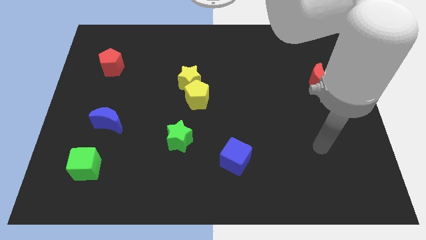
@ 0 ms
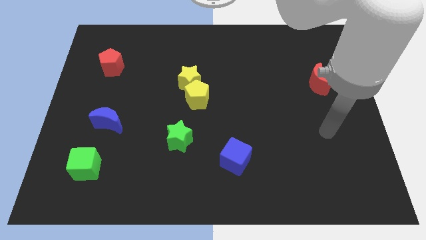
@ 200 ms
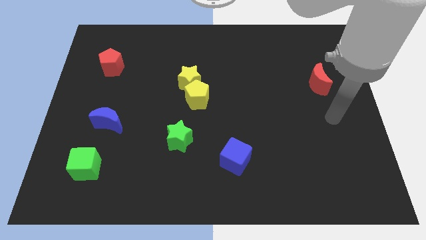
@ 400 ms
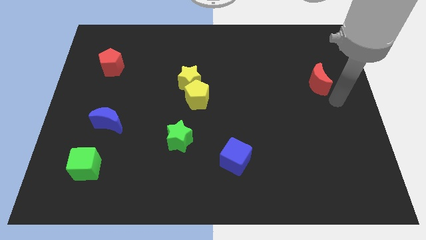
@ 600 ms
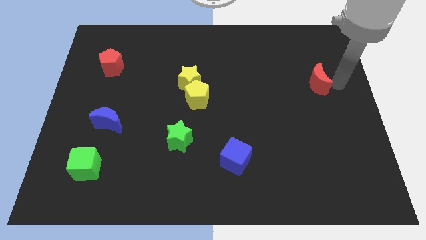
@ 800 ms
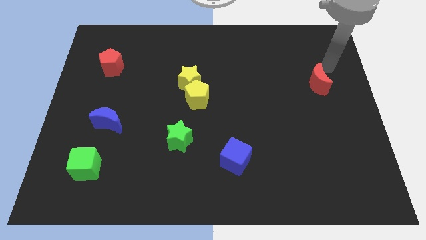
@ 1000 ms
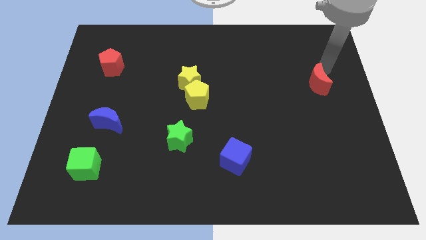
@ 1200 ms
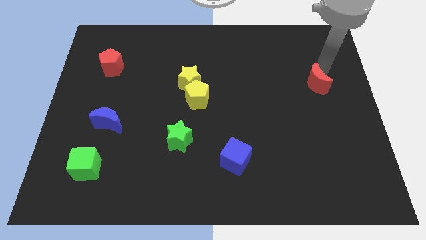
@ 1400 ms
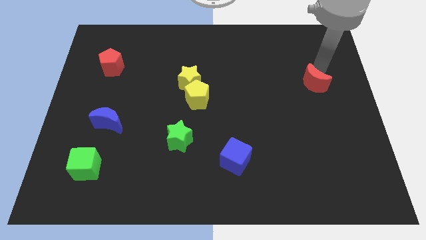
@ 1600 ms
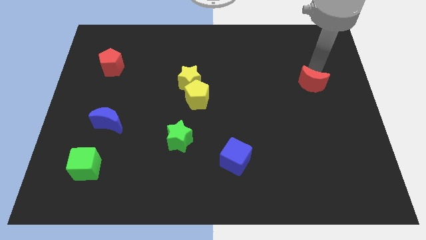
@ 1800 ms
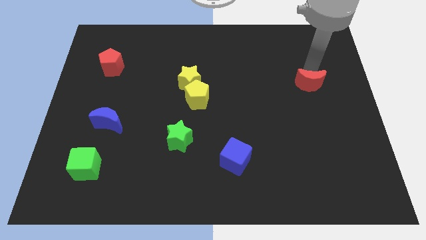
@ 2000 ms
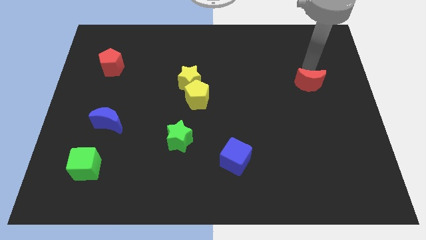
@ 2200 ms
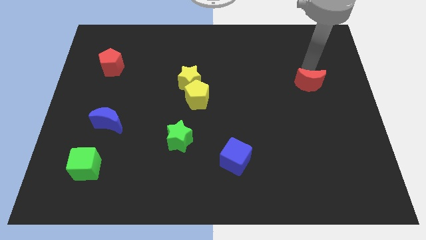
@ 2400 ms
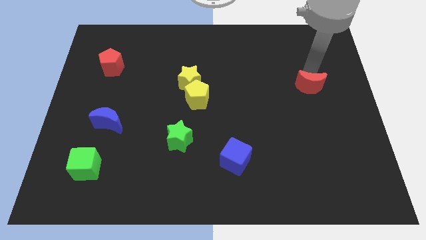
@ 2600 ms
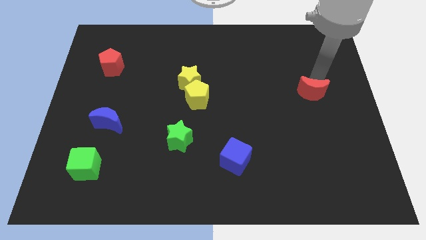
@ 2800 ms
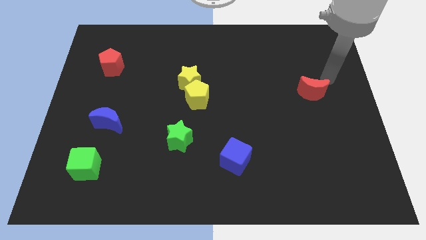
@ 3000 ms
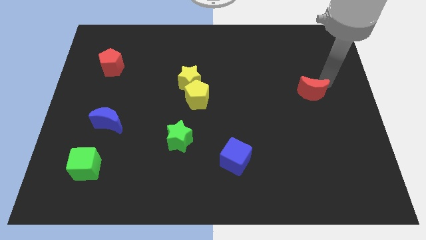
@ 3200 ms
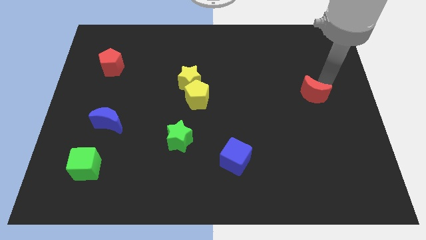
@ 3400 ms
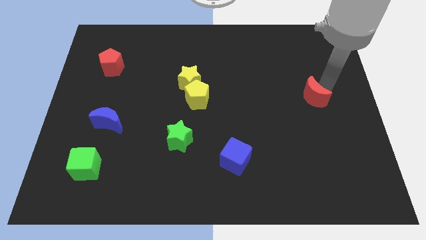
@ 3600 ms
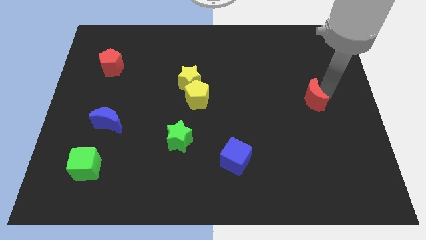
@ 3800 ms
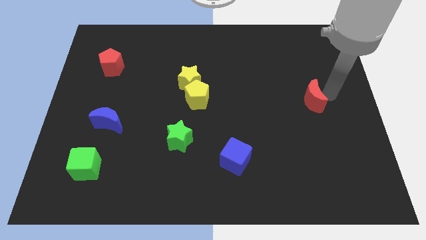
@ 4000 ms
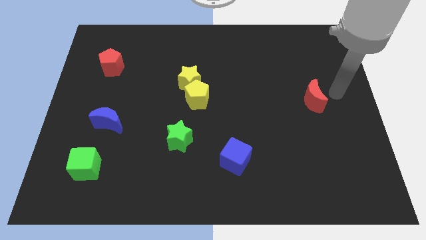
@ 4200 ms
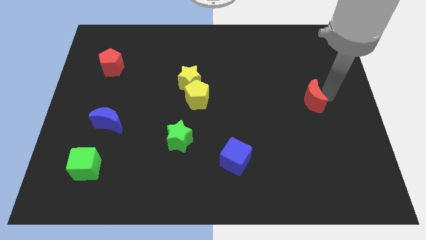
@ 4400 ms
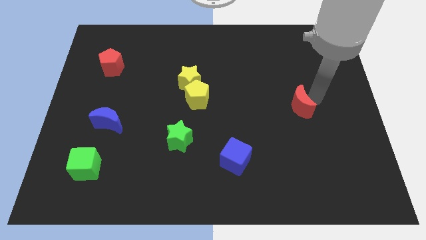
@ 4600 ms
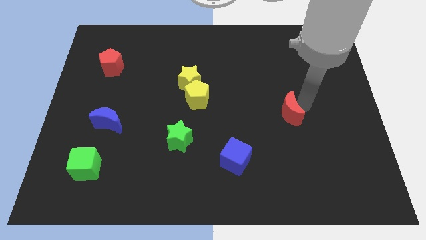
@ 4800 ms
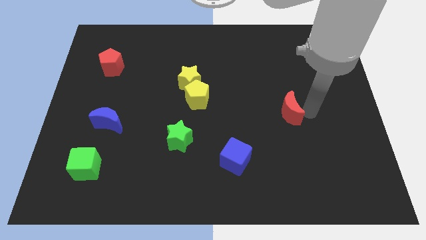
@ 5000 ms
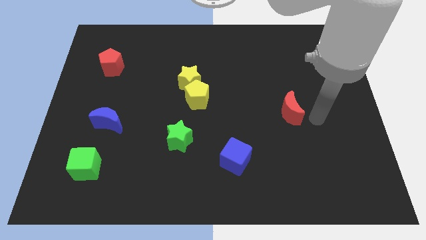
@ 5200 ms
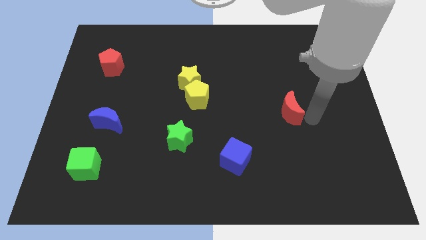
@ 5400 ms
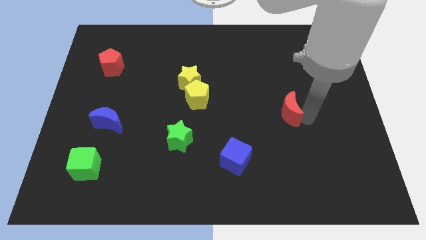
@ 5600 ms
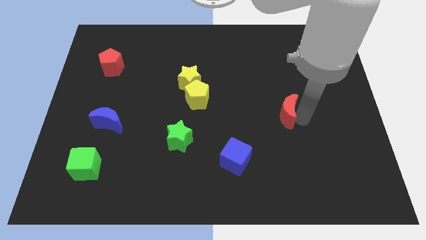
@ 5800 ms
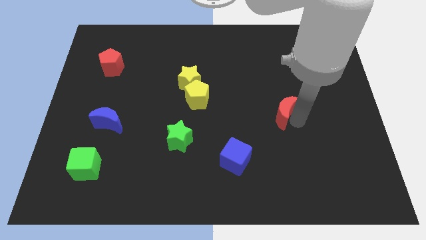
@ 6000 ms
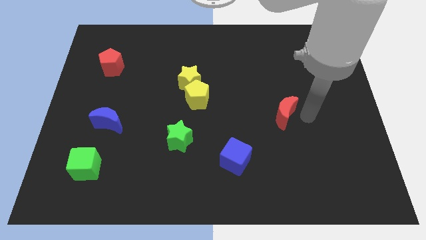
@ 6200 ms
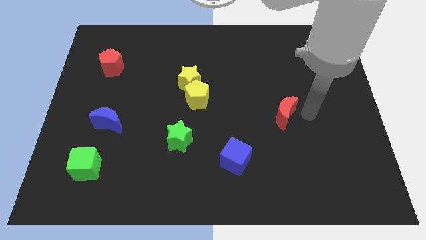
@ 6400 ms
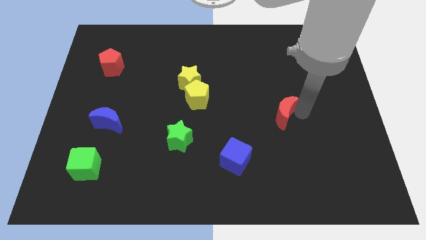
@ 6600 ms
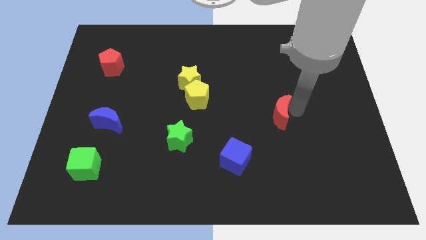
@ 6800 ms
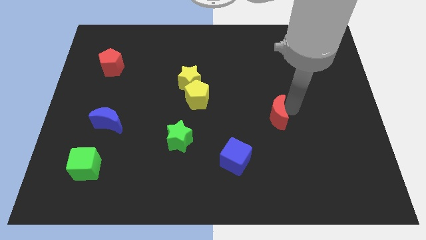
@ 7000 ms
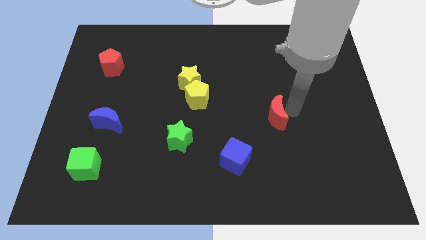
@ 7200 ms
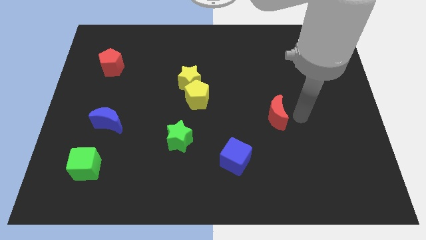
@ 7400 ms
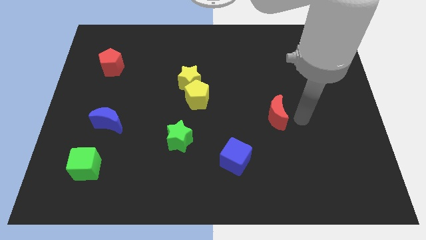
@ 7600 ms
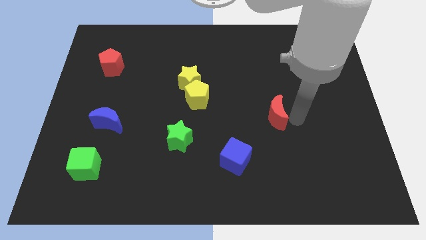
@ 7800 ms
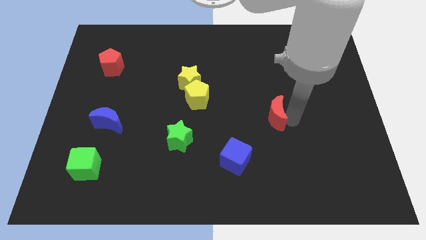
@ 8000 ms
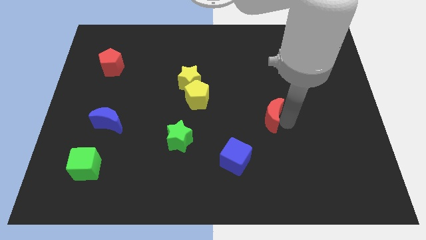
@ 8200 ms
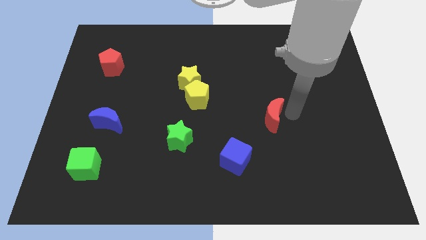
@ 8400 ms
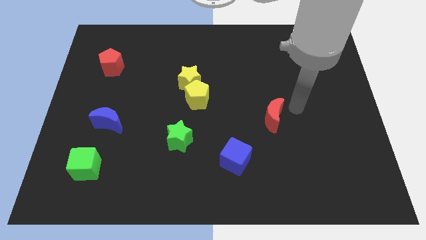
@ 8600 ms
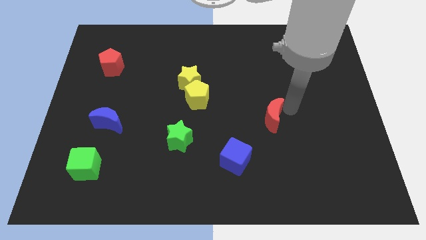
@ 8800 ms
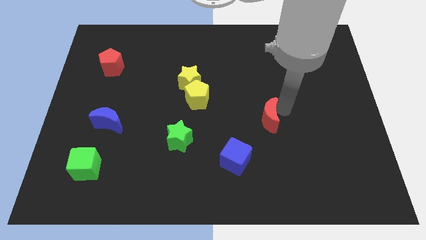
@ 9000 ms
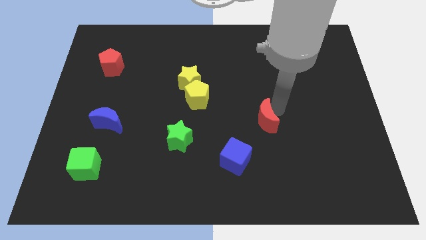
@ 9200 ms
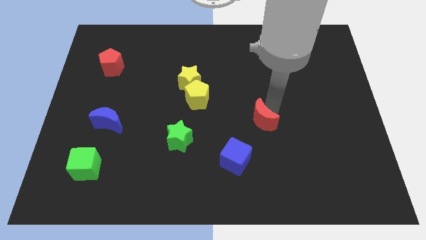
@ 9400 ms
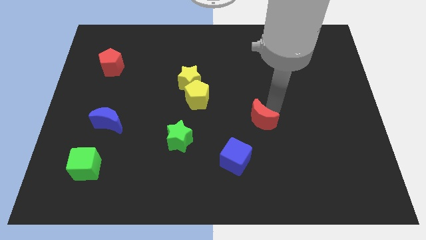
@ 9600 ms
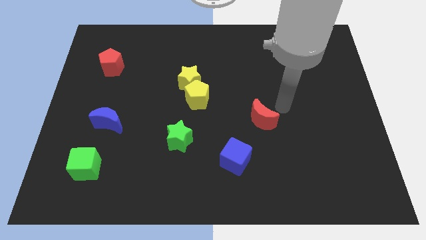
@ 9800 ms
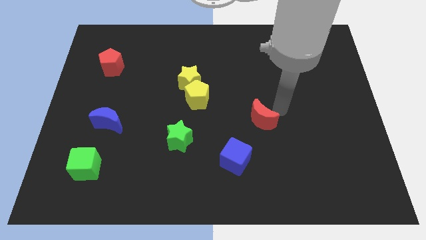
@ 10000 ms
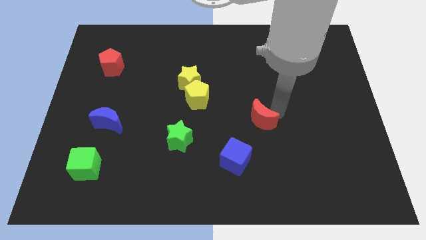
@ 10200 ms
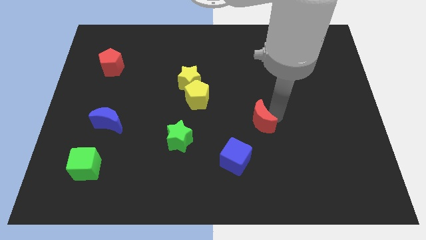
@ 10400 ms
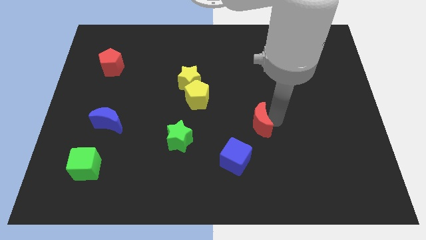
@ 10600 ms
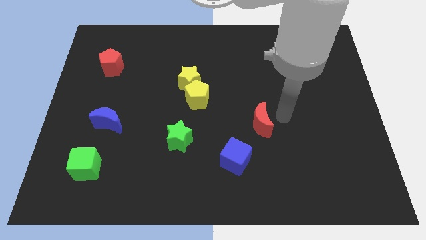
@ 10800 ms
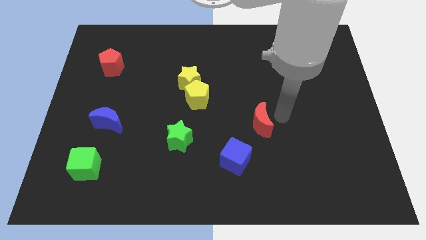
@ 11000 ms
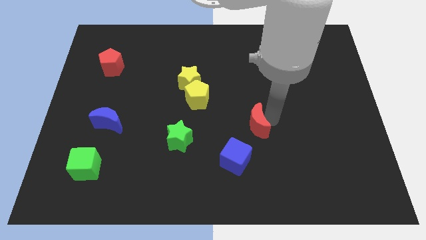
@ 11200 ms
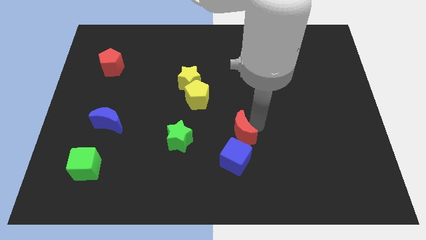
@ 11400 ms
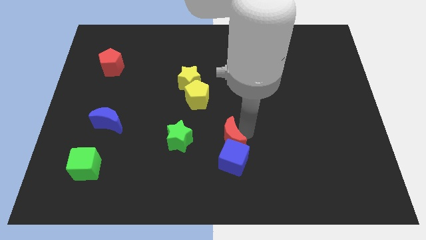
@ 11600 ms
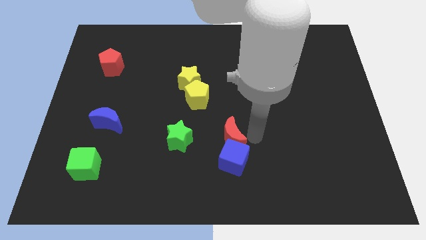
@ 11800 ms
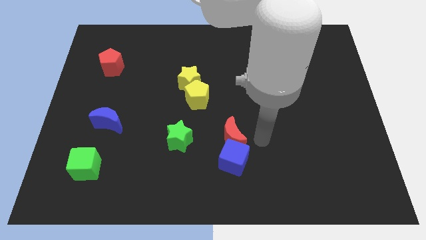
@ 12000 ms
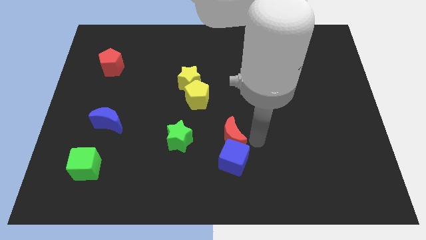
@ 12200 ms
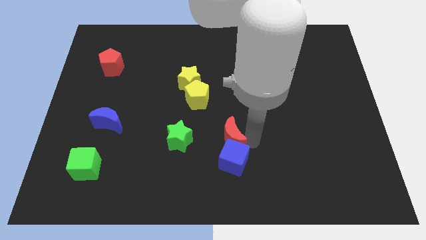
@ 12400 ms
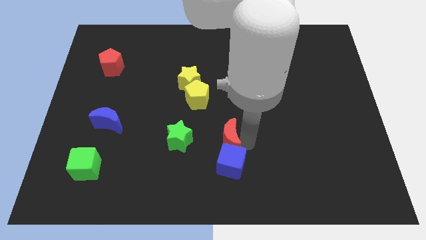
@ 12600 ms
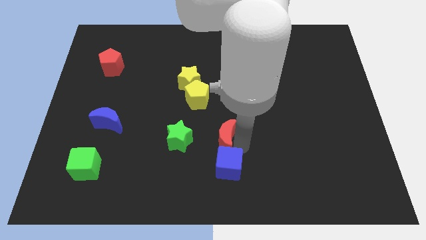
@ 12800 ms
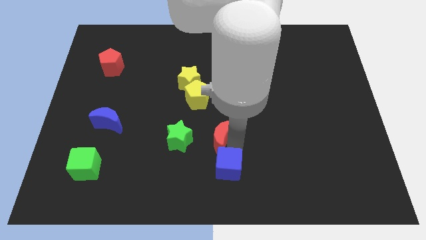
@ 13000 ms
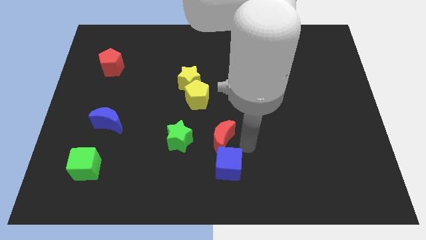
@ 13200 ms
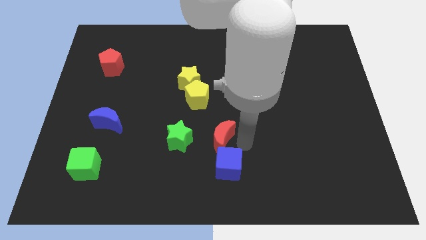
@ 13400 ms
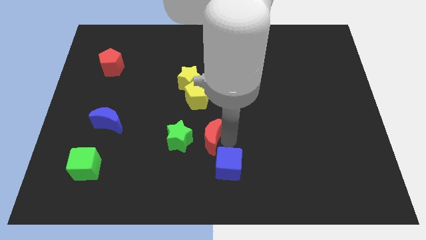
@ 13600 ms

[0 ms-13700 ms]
put the red moon to the bottom side of the yellow pentagon

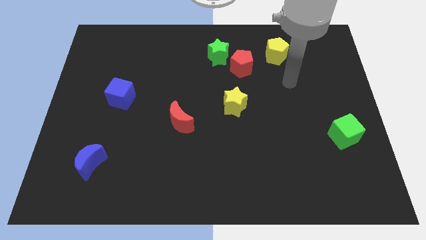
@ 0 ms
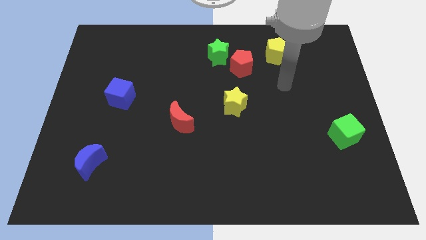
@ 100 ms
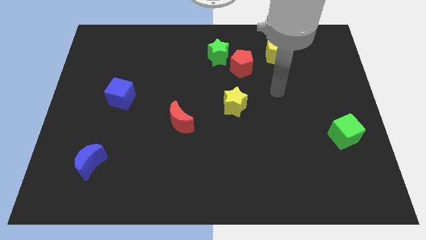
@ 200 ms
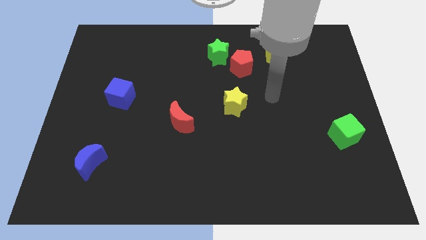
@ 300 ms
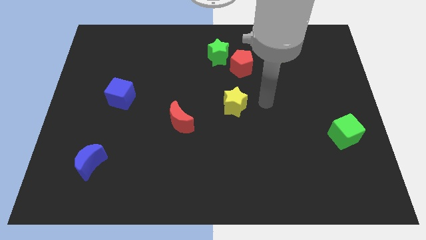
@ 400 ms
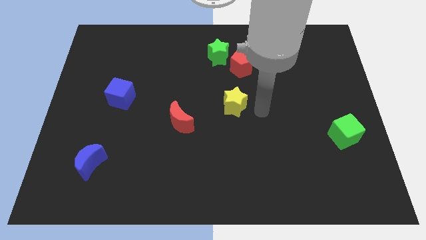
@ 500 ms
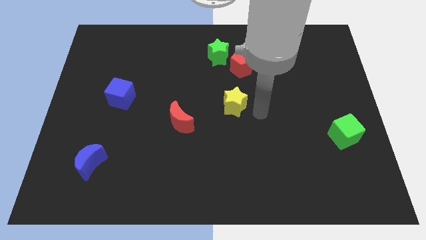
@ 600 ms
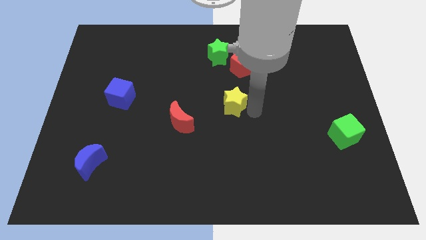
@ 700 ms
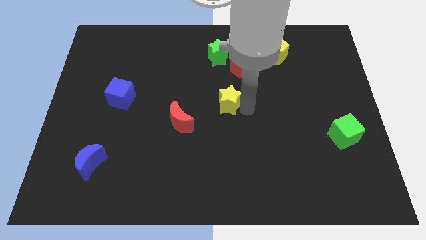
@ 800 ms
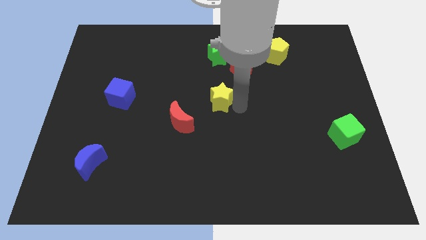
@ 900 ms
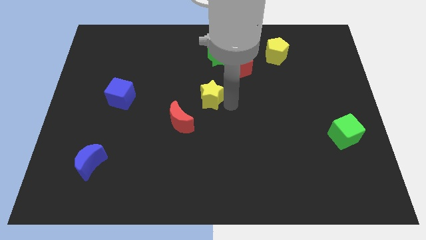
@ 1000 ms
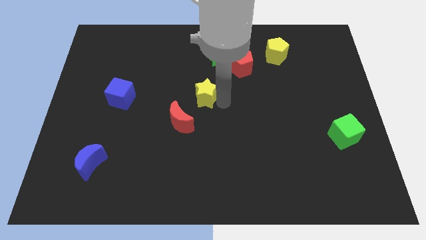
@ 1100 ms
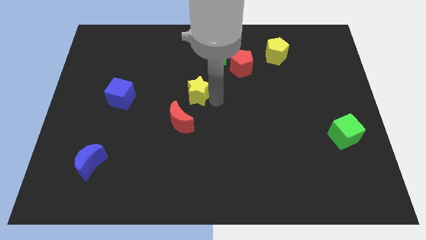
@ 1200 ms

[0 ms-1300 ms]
slide the yellow star above the red moon
